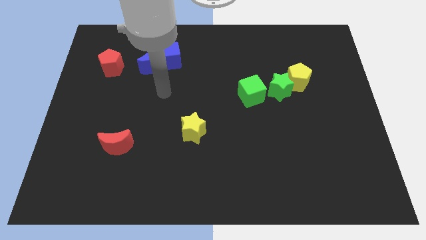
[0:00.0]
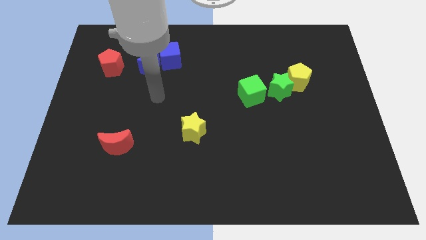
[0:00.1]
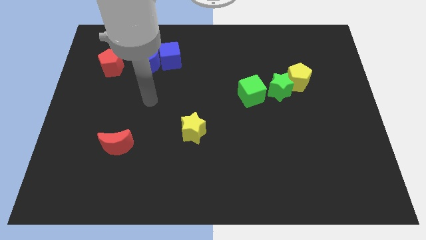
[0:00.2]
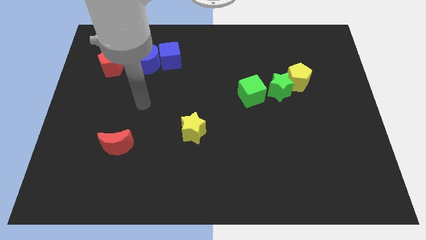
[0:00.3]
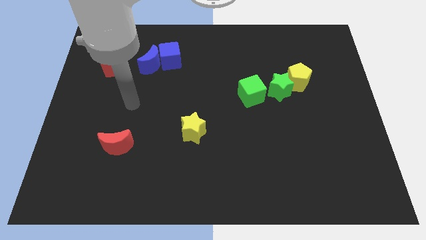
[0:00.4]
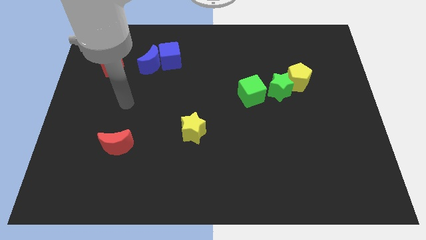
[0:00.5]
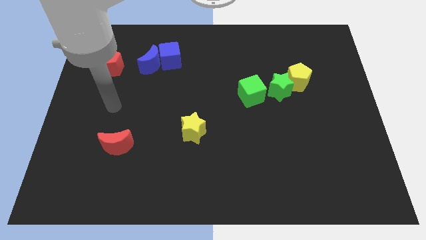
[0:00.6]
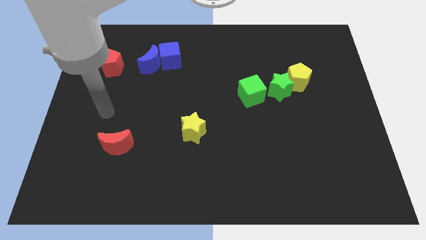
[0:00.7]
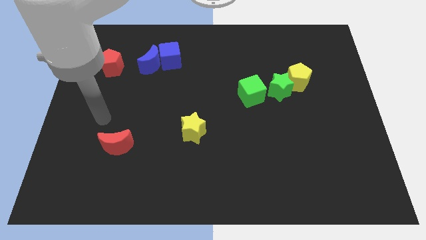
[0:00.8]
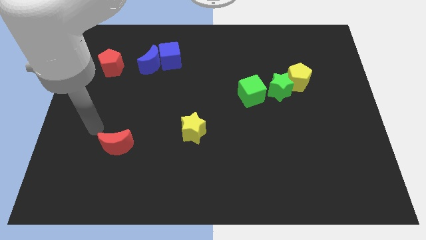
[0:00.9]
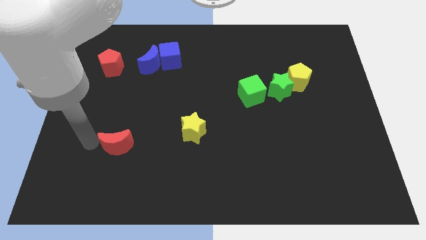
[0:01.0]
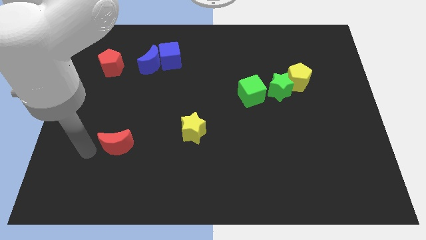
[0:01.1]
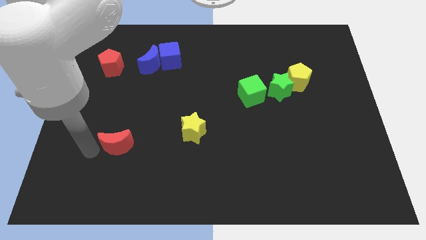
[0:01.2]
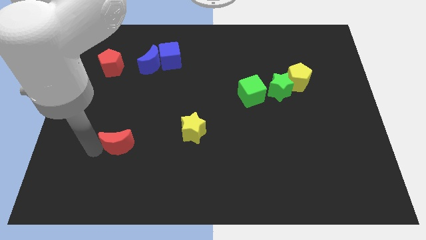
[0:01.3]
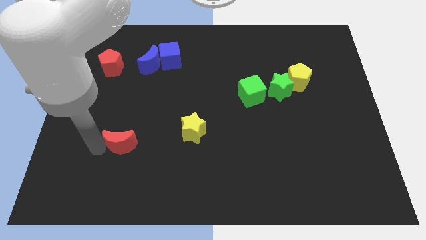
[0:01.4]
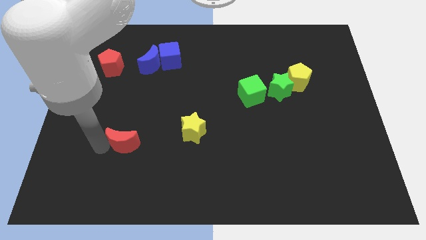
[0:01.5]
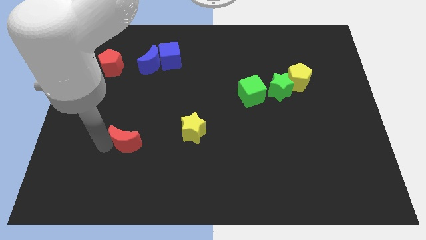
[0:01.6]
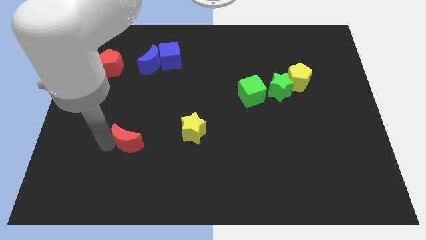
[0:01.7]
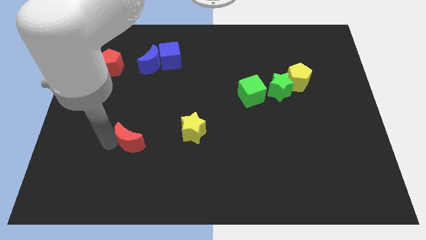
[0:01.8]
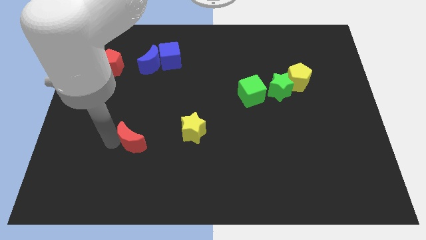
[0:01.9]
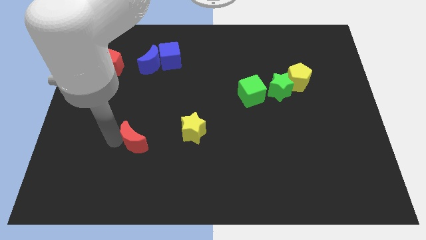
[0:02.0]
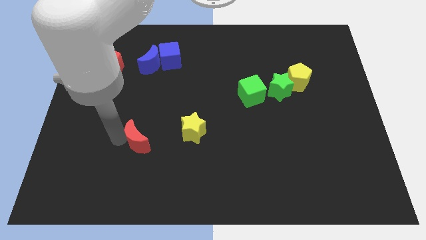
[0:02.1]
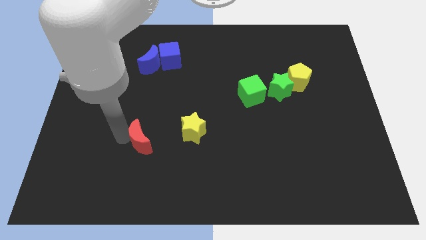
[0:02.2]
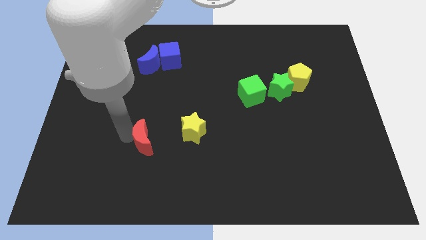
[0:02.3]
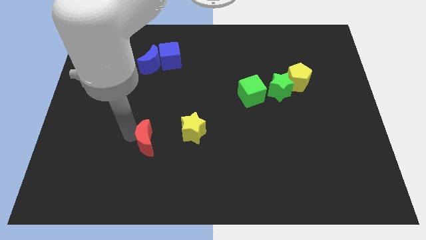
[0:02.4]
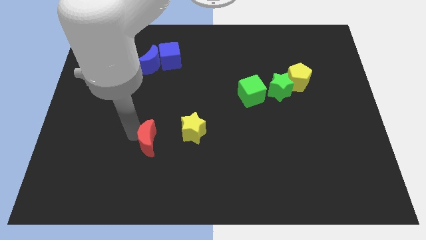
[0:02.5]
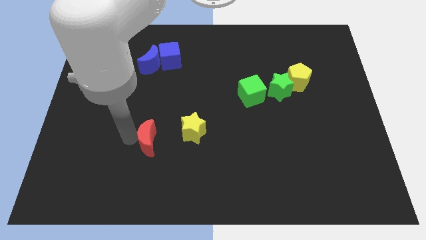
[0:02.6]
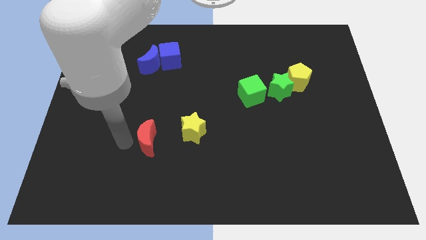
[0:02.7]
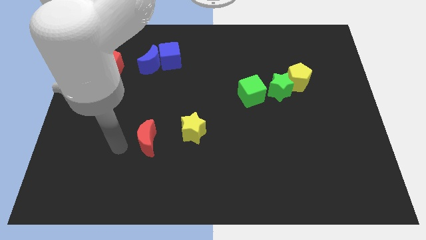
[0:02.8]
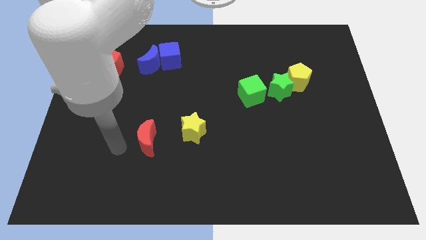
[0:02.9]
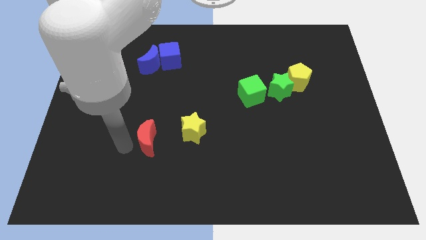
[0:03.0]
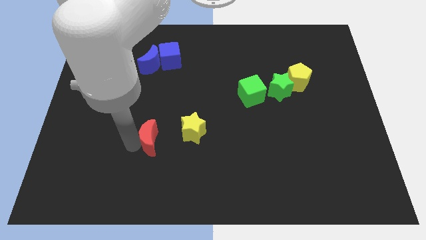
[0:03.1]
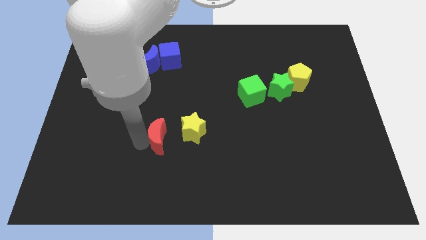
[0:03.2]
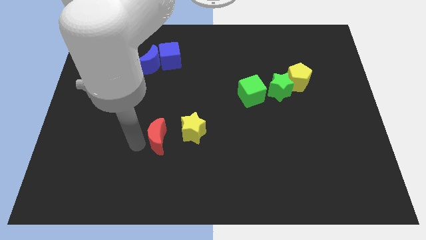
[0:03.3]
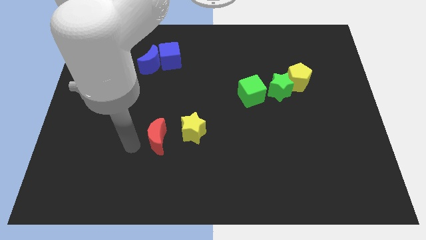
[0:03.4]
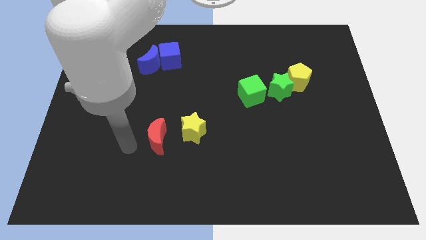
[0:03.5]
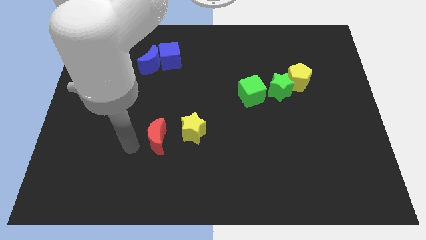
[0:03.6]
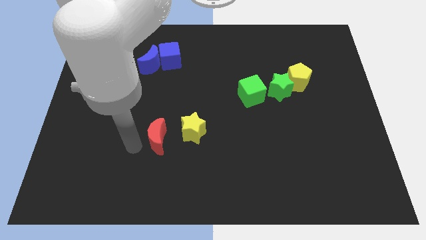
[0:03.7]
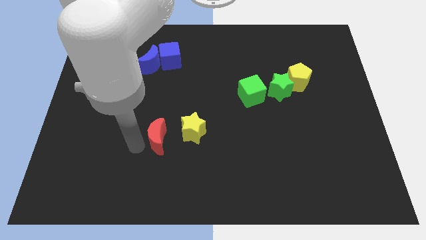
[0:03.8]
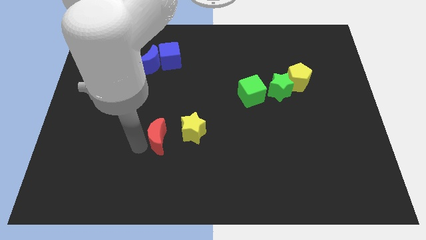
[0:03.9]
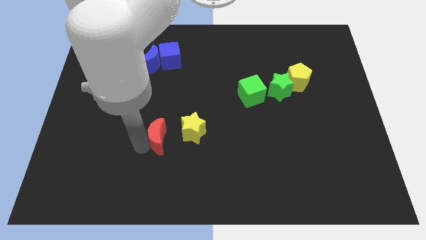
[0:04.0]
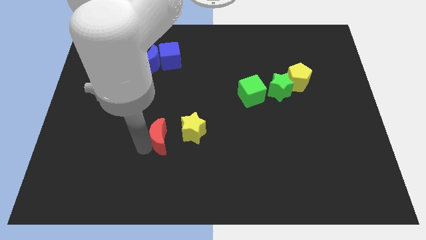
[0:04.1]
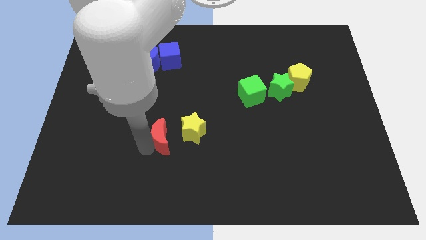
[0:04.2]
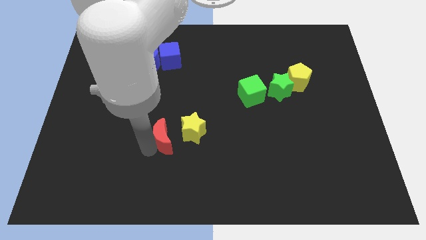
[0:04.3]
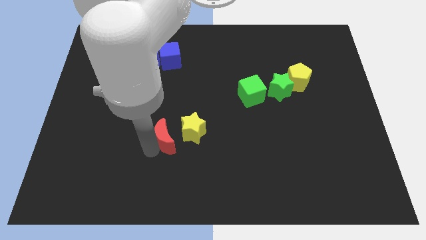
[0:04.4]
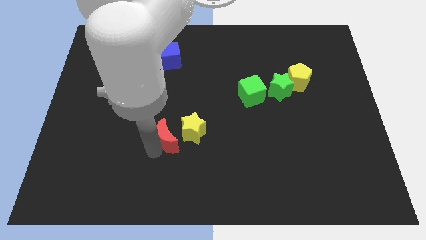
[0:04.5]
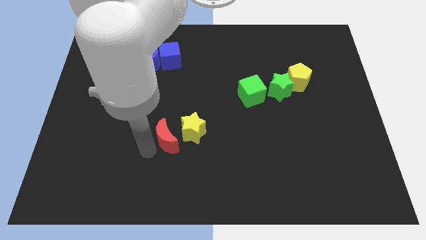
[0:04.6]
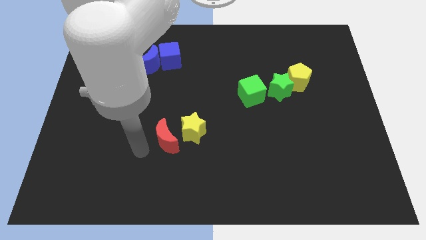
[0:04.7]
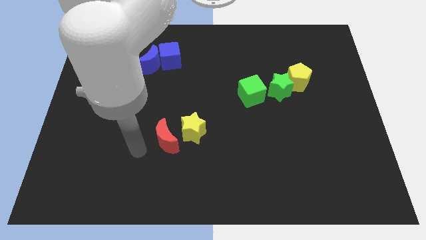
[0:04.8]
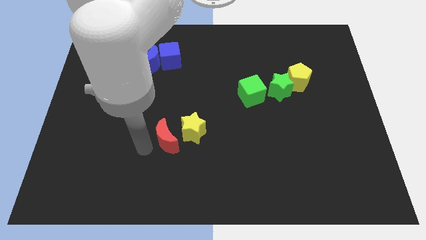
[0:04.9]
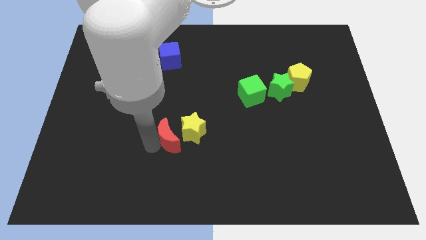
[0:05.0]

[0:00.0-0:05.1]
put the red moon next to the yellow star

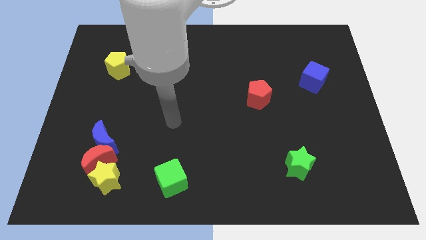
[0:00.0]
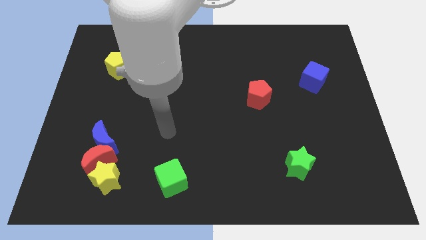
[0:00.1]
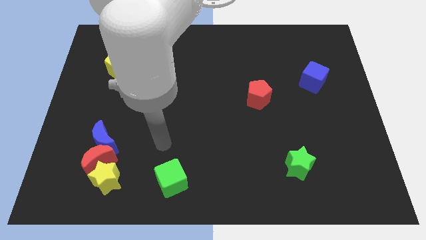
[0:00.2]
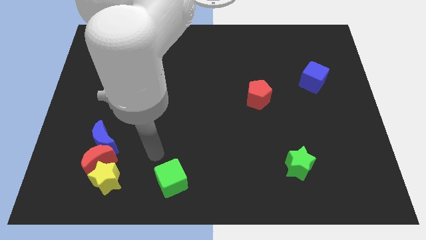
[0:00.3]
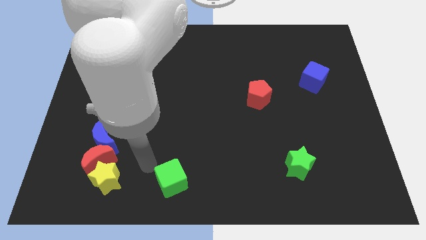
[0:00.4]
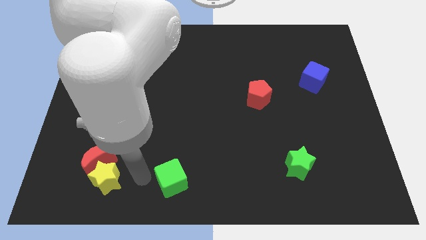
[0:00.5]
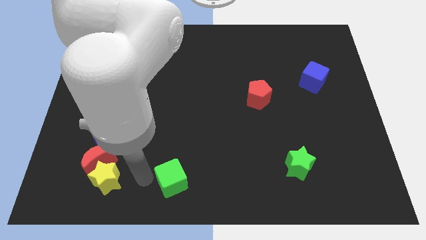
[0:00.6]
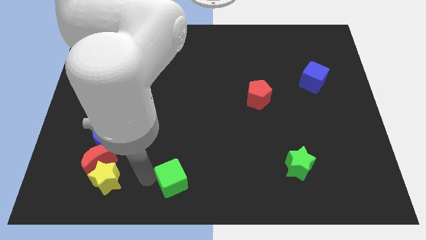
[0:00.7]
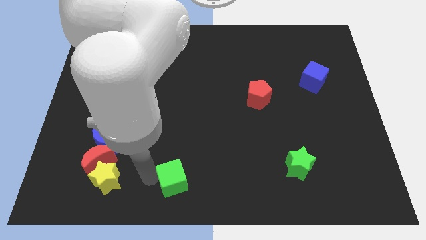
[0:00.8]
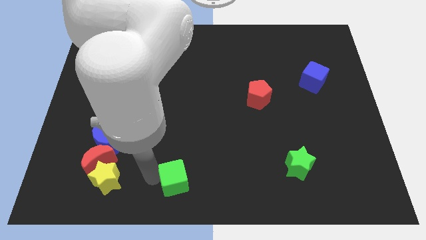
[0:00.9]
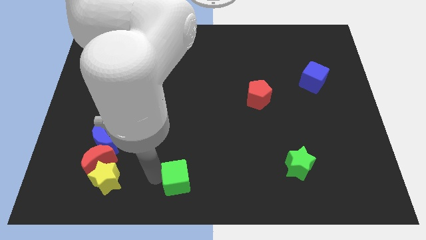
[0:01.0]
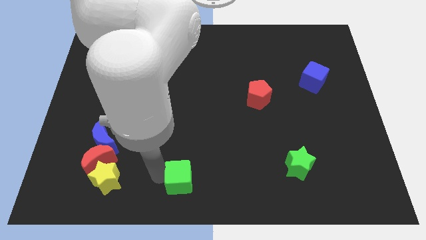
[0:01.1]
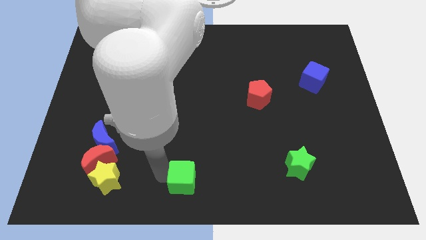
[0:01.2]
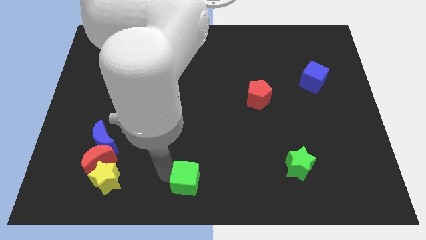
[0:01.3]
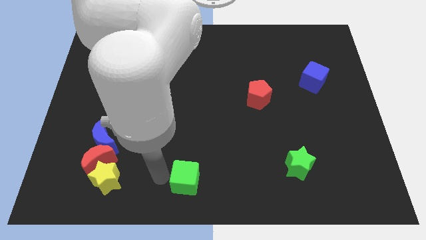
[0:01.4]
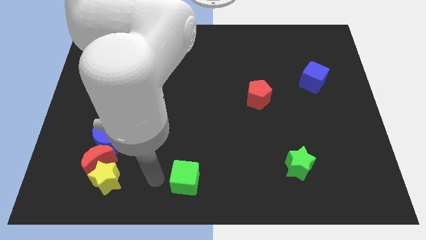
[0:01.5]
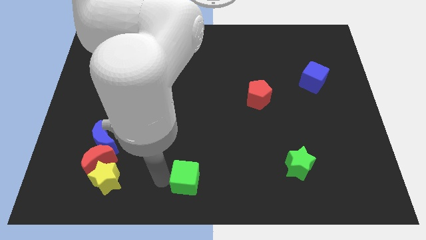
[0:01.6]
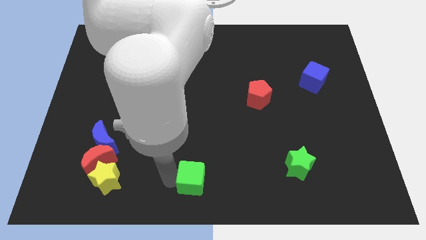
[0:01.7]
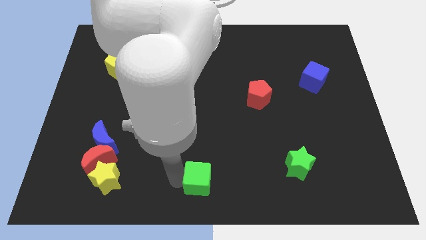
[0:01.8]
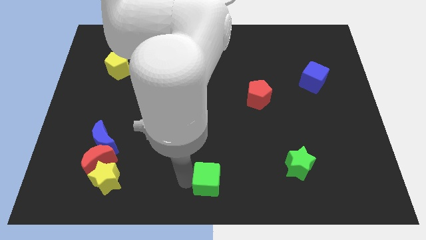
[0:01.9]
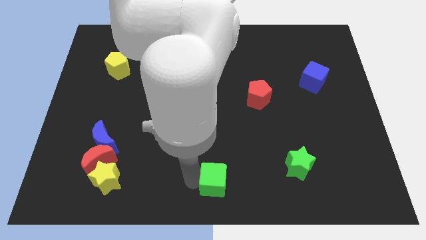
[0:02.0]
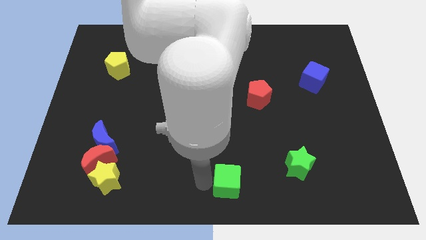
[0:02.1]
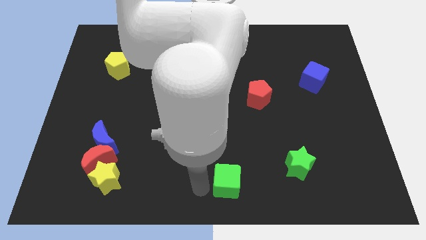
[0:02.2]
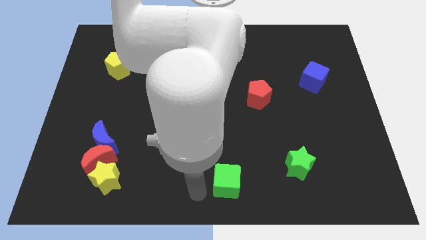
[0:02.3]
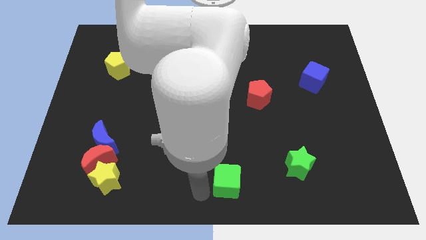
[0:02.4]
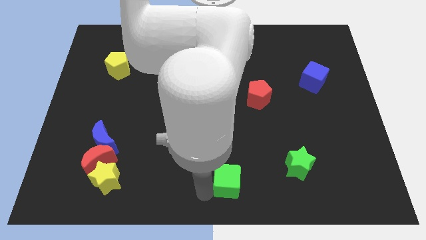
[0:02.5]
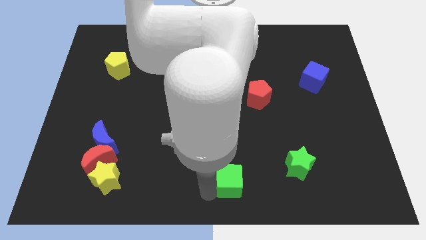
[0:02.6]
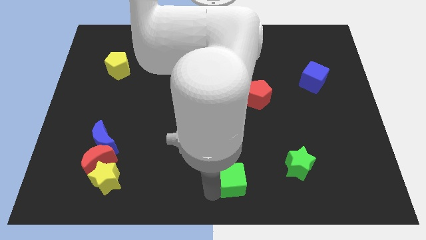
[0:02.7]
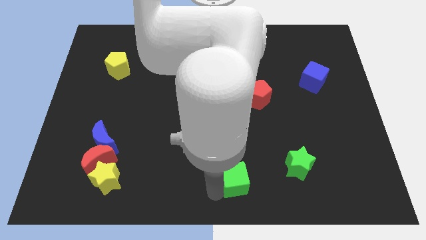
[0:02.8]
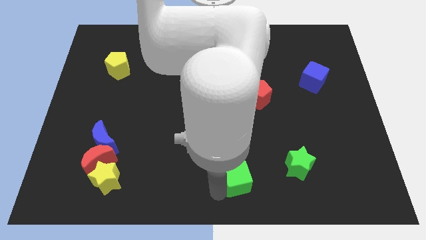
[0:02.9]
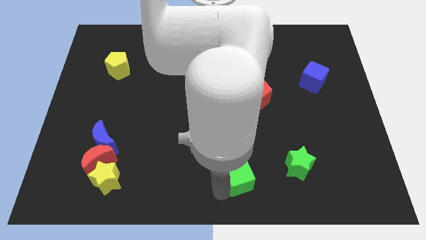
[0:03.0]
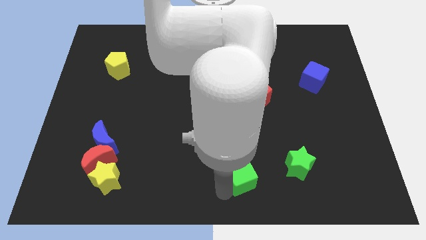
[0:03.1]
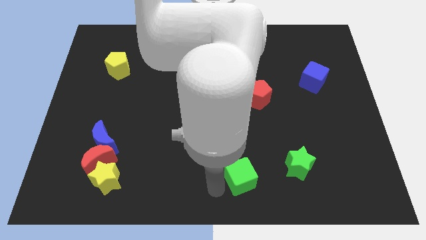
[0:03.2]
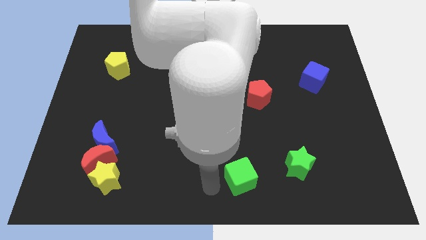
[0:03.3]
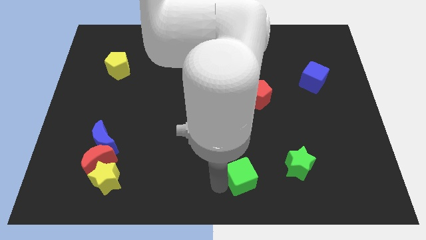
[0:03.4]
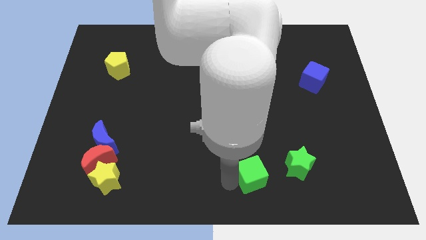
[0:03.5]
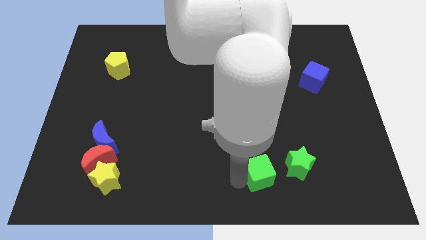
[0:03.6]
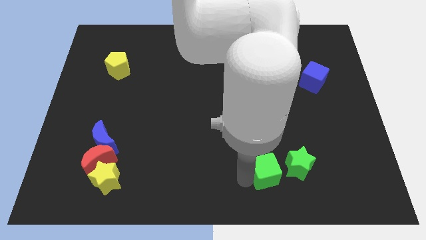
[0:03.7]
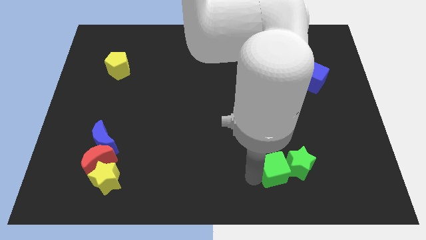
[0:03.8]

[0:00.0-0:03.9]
slide the green cube to the green star
